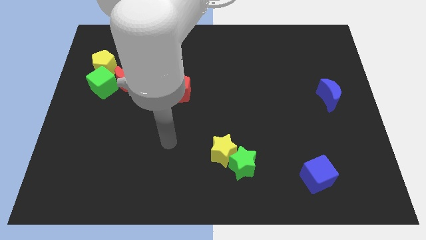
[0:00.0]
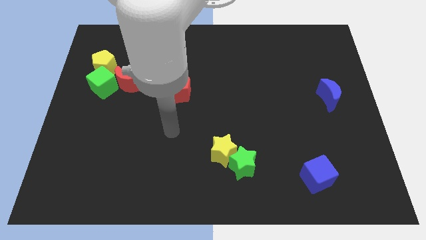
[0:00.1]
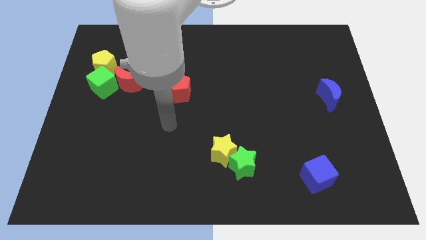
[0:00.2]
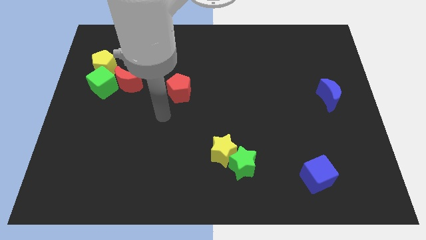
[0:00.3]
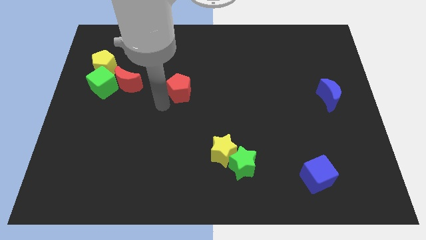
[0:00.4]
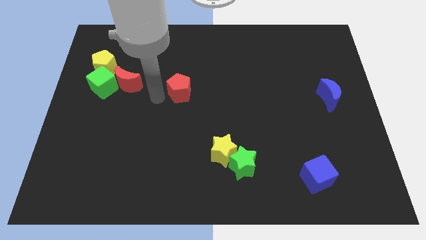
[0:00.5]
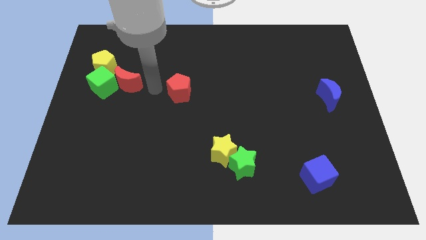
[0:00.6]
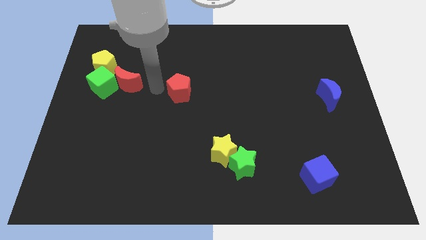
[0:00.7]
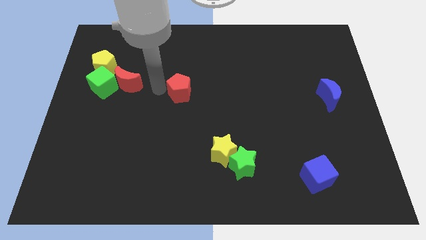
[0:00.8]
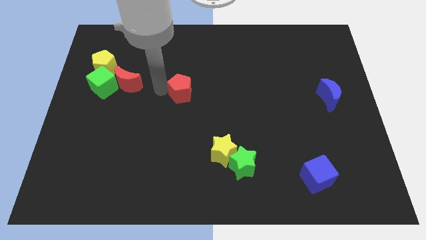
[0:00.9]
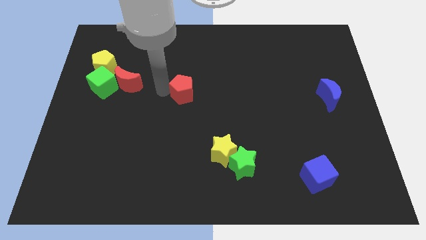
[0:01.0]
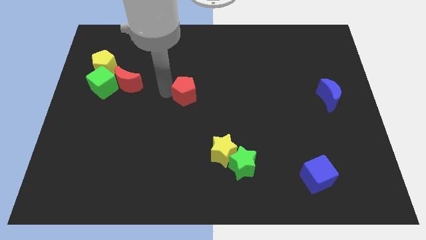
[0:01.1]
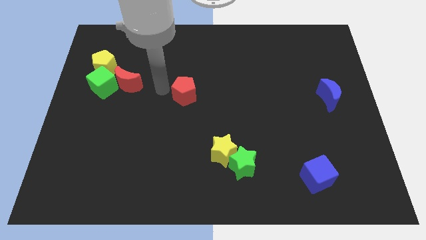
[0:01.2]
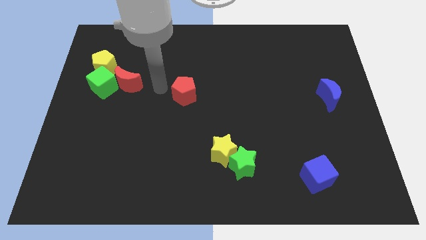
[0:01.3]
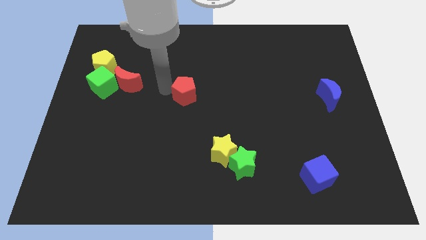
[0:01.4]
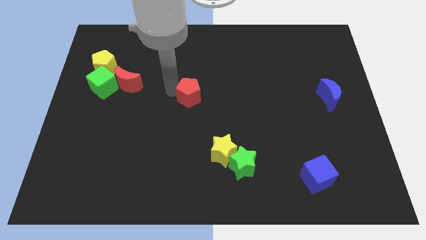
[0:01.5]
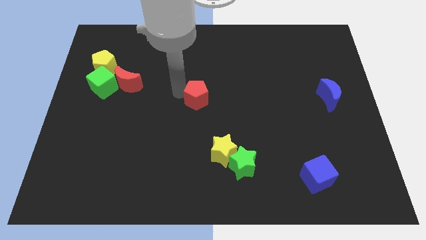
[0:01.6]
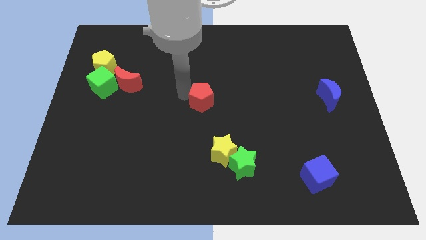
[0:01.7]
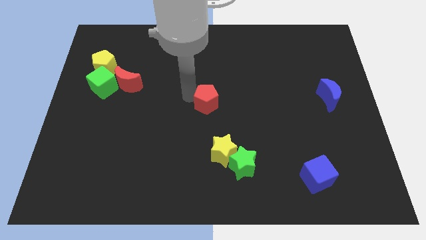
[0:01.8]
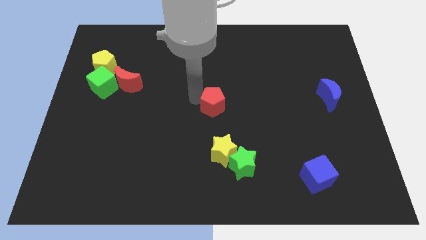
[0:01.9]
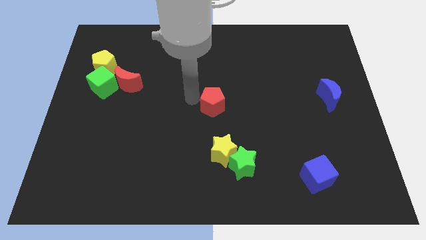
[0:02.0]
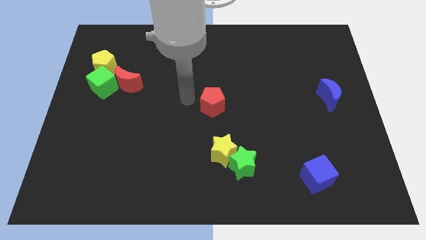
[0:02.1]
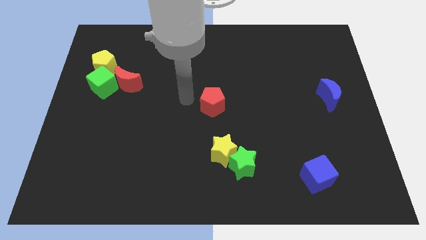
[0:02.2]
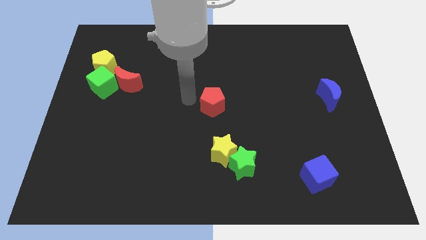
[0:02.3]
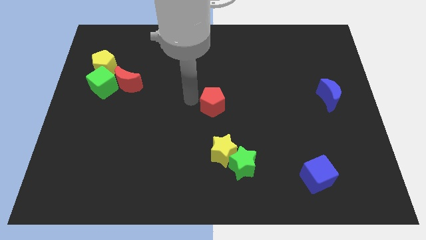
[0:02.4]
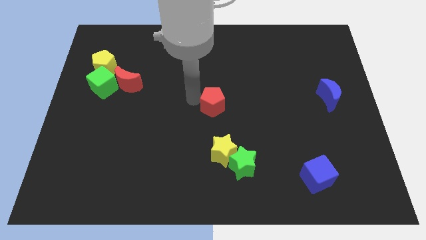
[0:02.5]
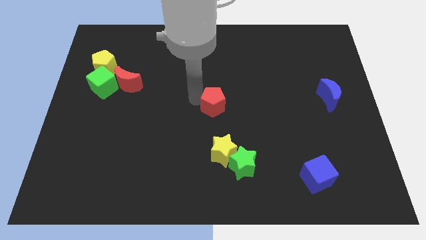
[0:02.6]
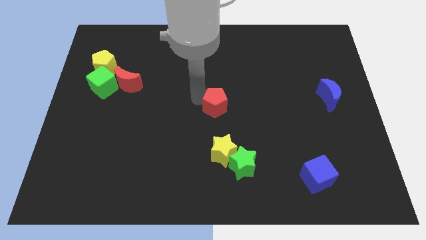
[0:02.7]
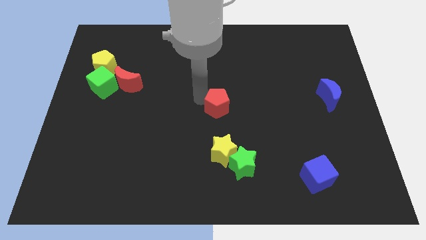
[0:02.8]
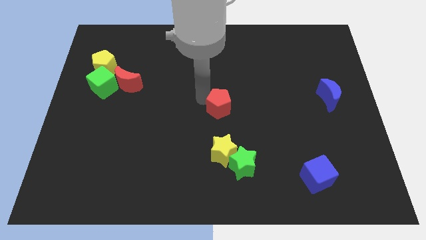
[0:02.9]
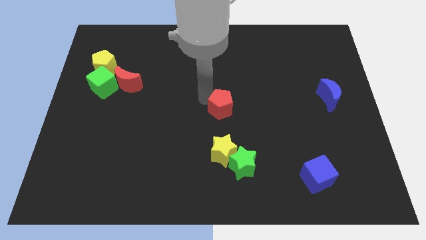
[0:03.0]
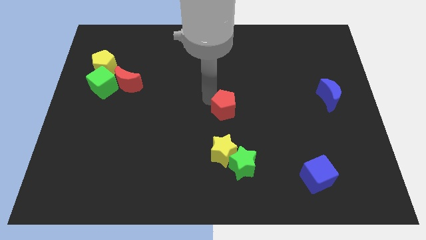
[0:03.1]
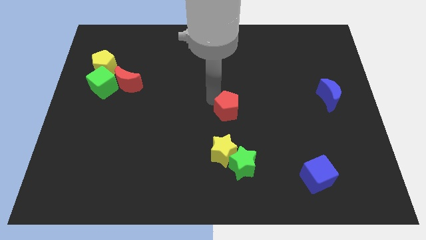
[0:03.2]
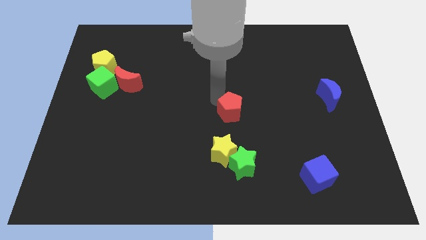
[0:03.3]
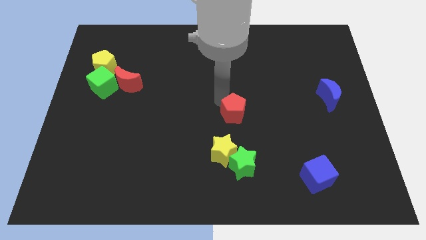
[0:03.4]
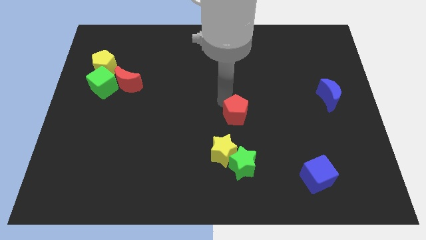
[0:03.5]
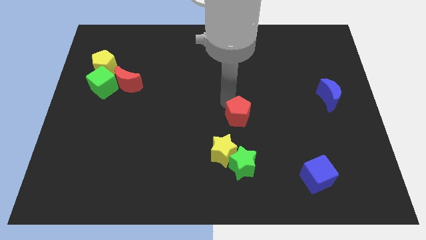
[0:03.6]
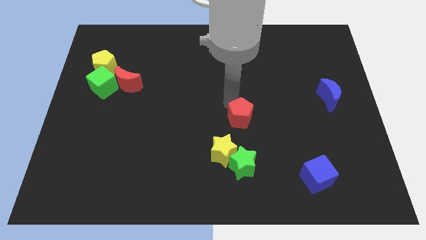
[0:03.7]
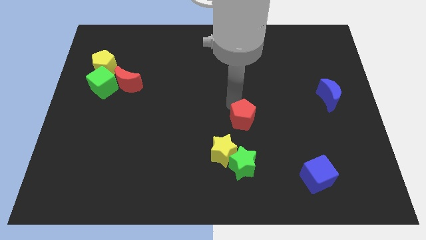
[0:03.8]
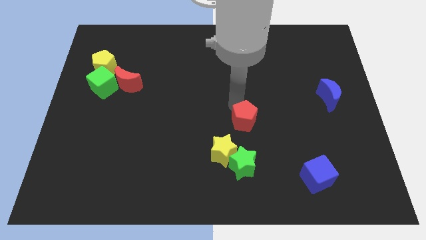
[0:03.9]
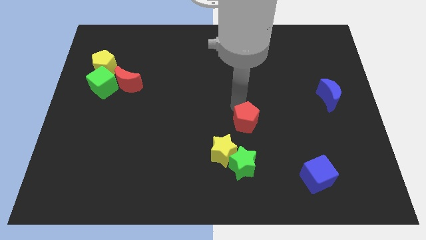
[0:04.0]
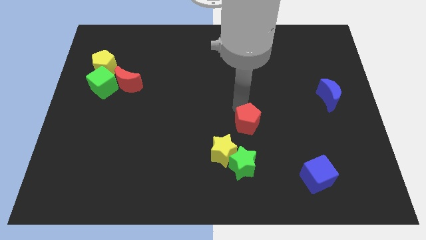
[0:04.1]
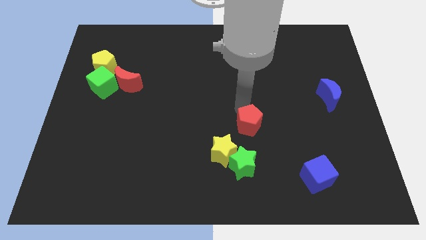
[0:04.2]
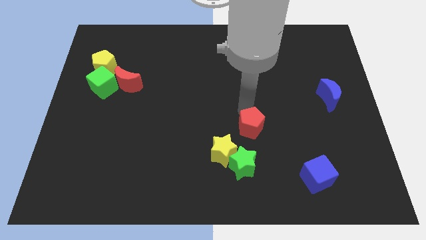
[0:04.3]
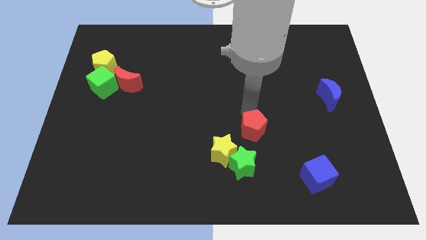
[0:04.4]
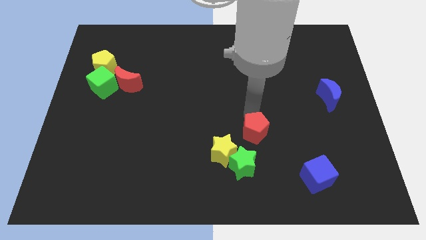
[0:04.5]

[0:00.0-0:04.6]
move the red pentagon down and right diagonally

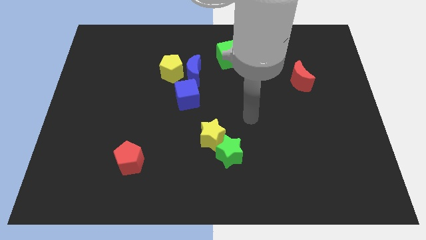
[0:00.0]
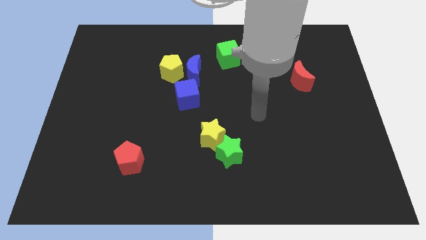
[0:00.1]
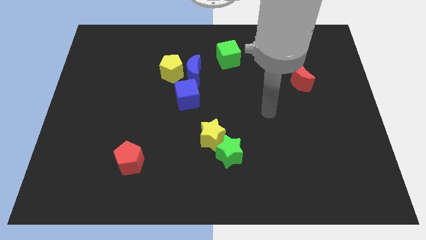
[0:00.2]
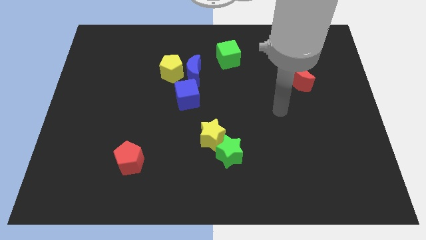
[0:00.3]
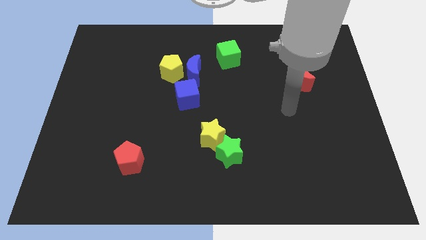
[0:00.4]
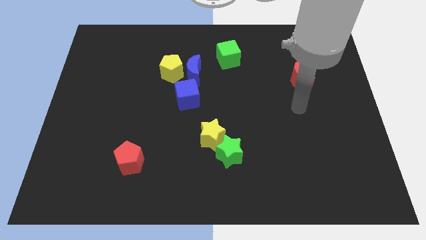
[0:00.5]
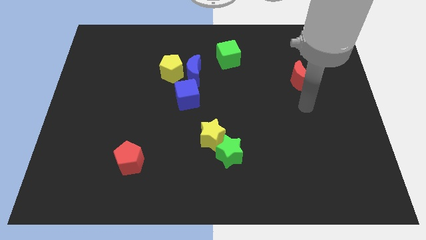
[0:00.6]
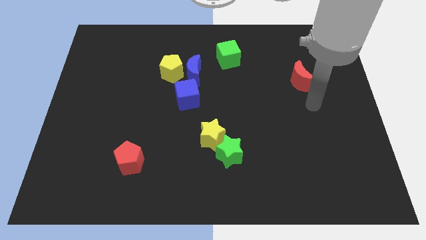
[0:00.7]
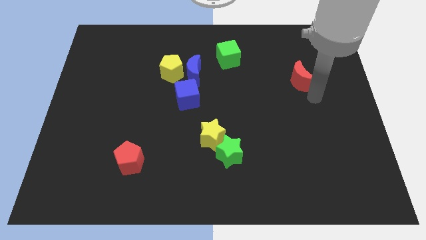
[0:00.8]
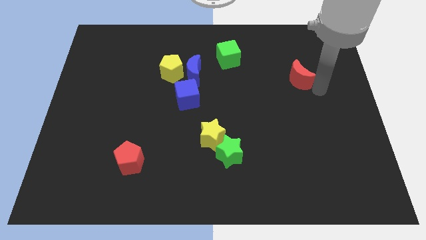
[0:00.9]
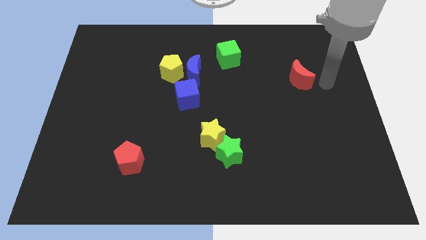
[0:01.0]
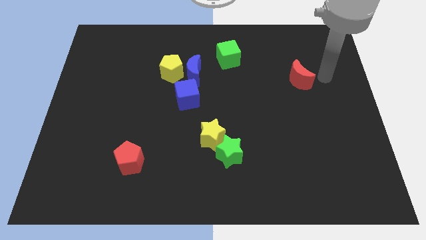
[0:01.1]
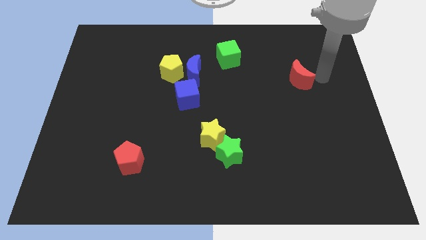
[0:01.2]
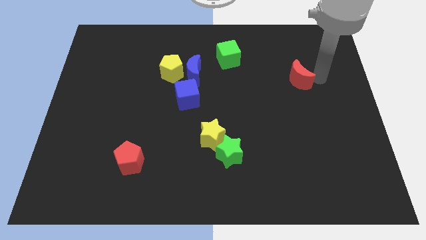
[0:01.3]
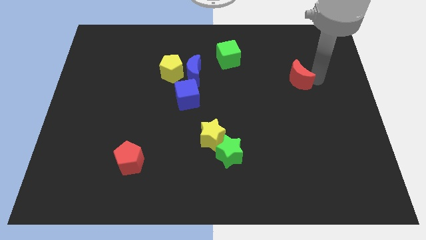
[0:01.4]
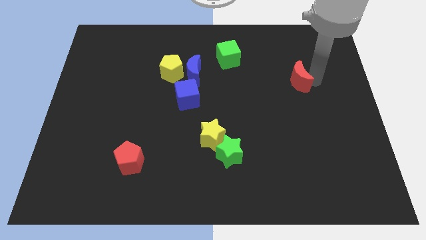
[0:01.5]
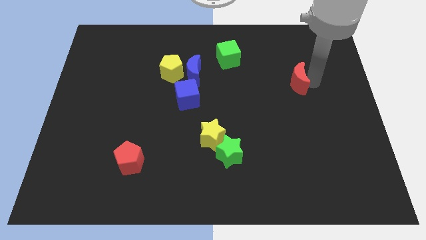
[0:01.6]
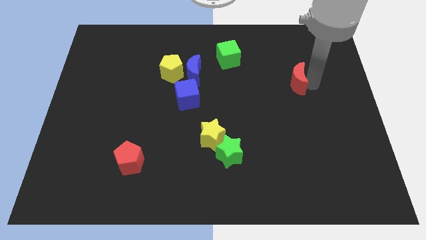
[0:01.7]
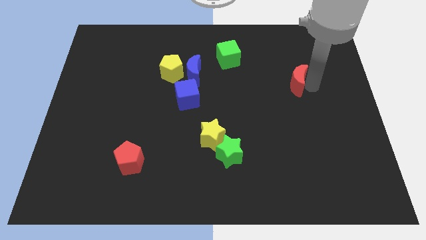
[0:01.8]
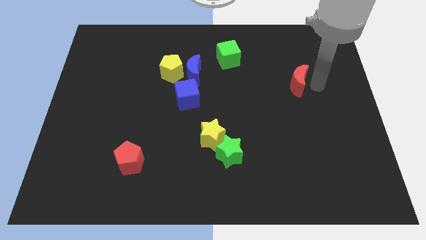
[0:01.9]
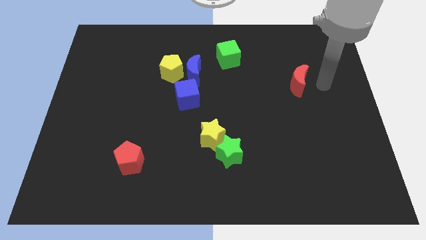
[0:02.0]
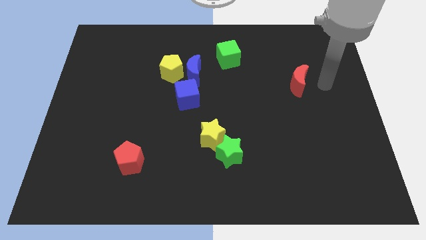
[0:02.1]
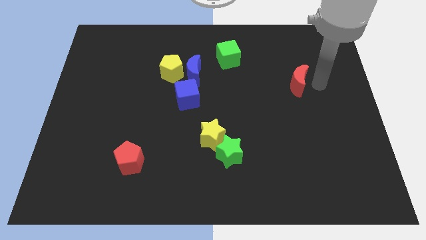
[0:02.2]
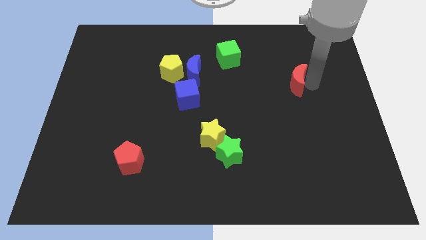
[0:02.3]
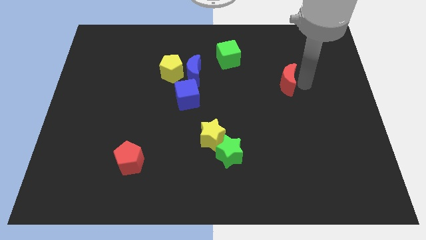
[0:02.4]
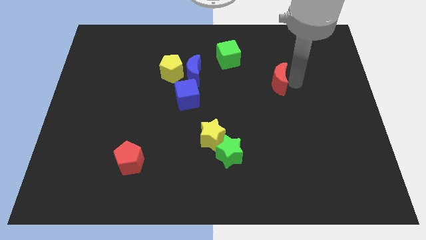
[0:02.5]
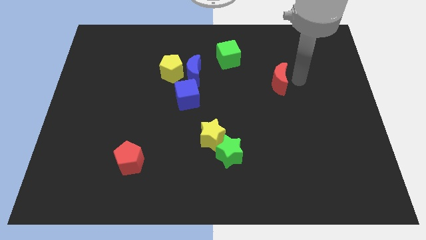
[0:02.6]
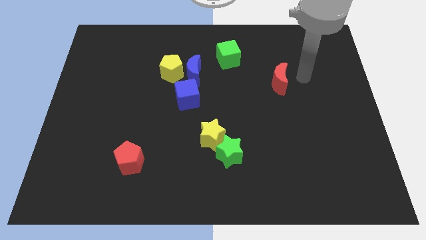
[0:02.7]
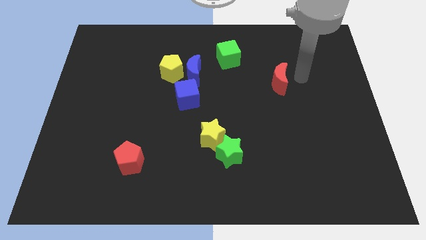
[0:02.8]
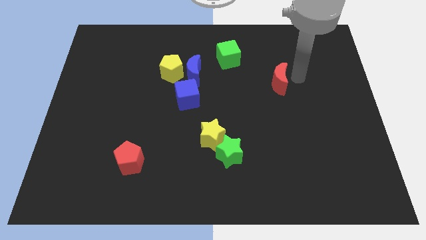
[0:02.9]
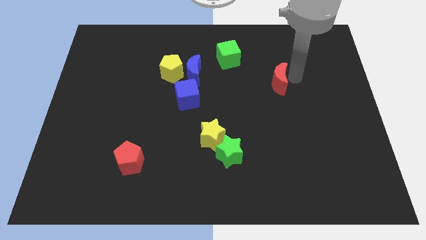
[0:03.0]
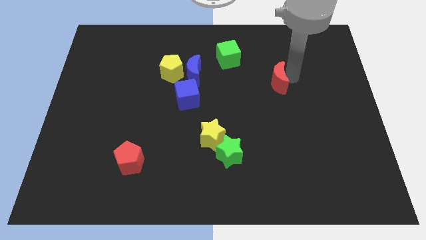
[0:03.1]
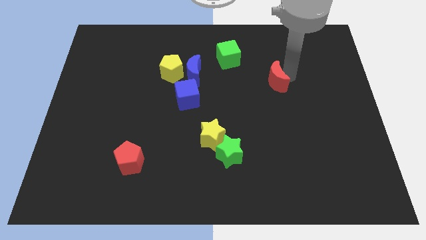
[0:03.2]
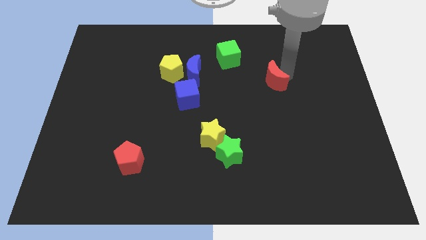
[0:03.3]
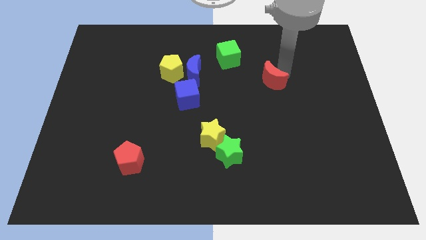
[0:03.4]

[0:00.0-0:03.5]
slightly push the red moon to the left
